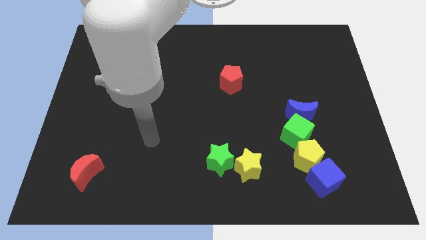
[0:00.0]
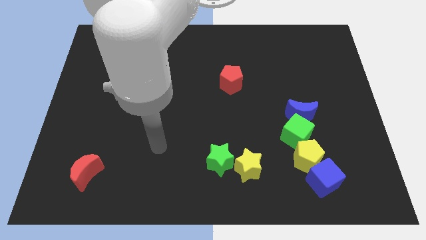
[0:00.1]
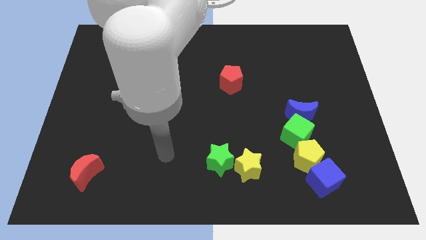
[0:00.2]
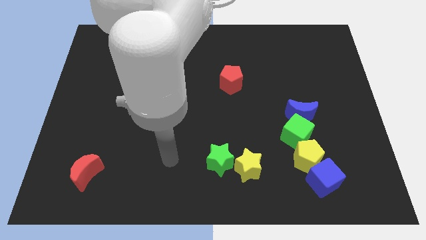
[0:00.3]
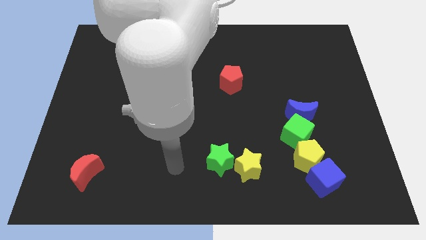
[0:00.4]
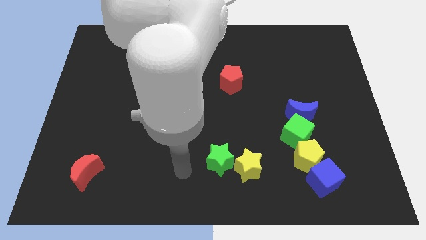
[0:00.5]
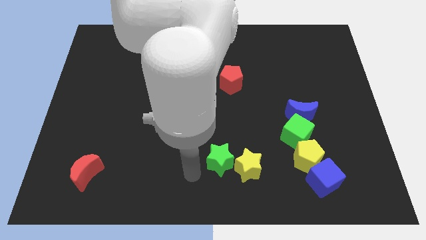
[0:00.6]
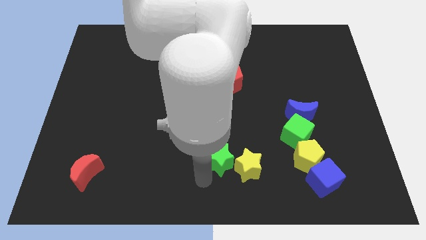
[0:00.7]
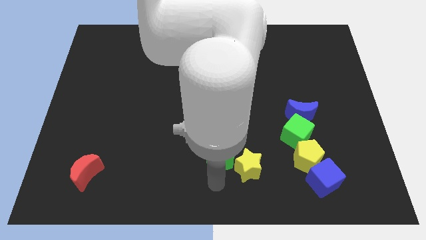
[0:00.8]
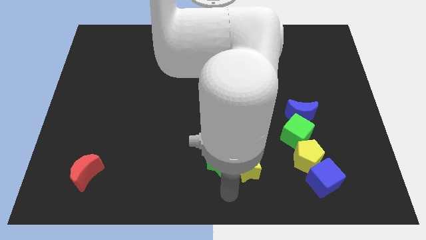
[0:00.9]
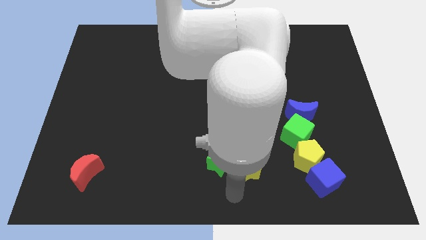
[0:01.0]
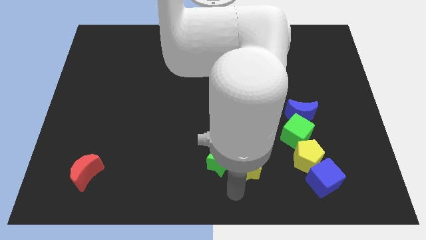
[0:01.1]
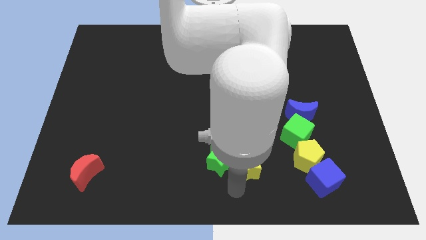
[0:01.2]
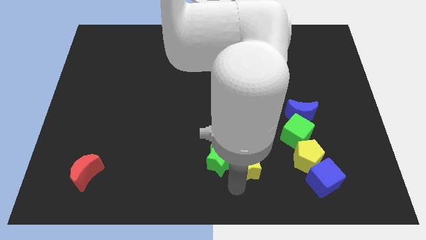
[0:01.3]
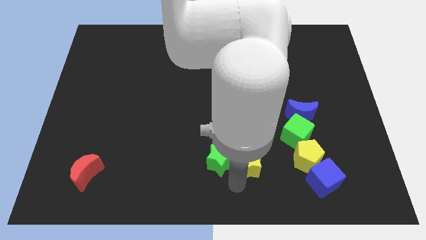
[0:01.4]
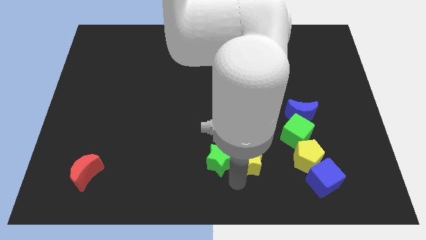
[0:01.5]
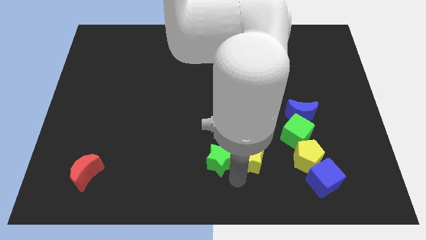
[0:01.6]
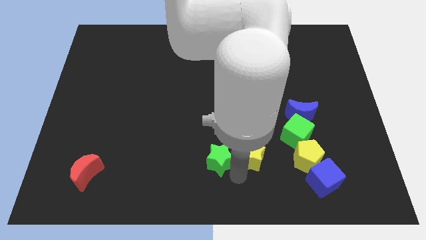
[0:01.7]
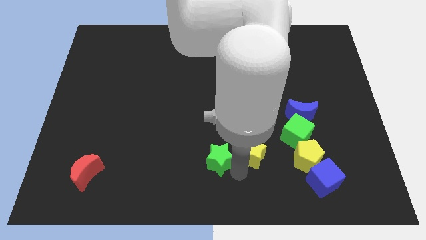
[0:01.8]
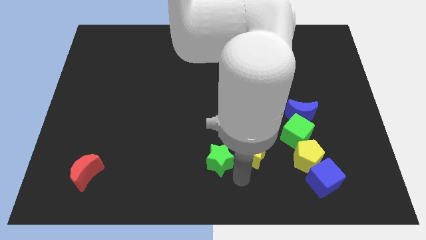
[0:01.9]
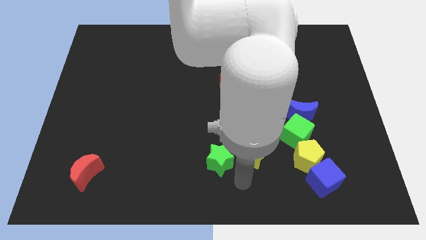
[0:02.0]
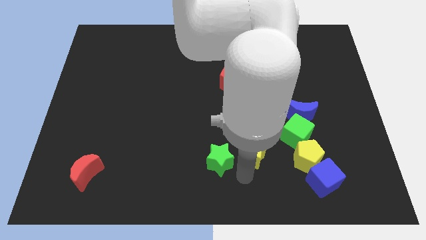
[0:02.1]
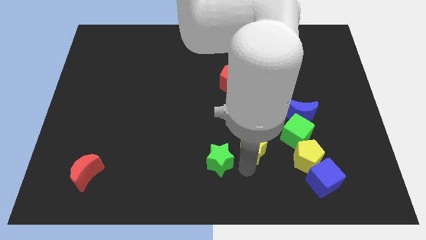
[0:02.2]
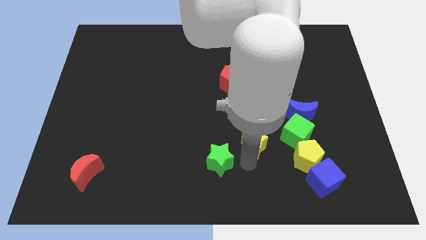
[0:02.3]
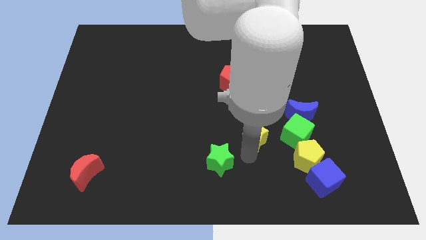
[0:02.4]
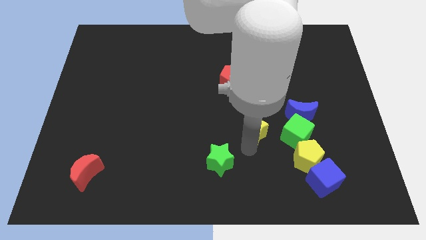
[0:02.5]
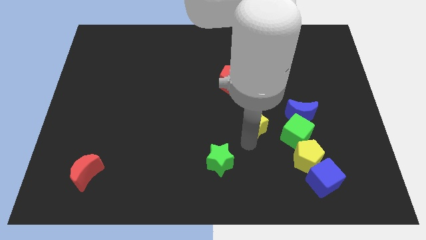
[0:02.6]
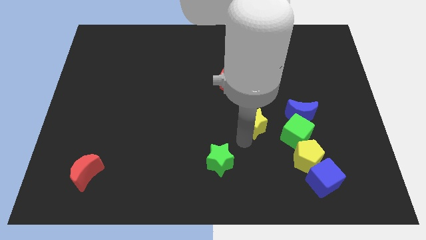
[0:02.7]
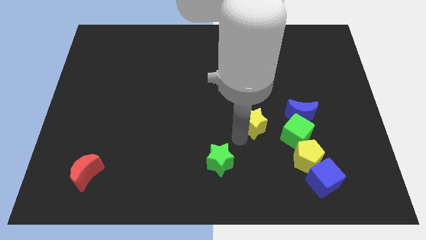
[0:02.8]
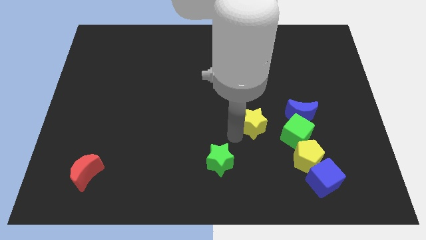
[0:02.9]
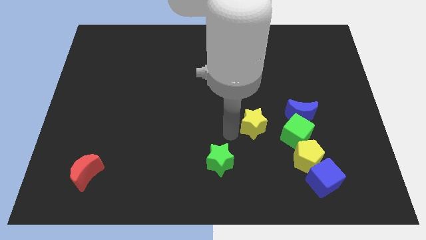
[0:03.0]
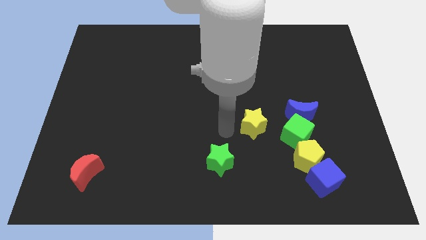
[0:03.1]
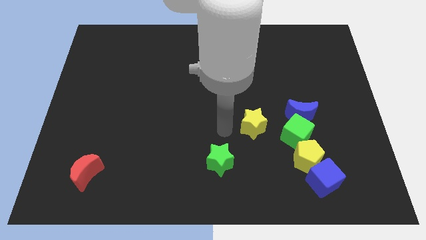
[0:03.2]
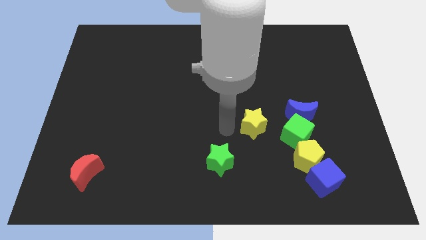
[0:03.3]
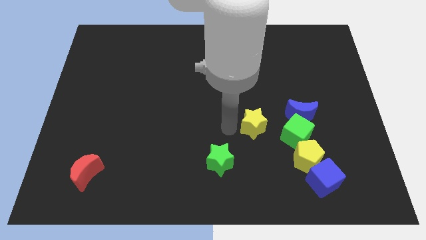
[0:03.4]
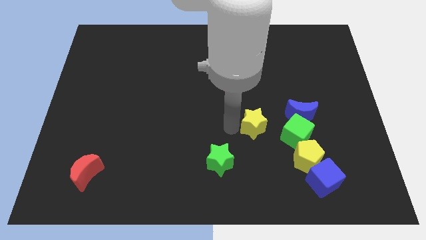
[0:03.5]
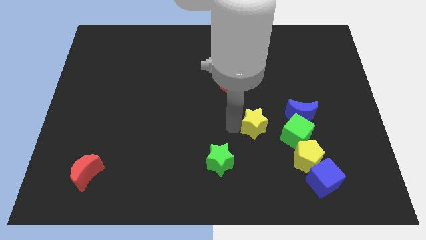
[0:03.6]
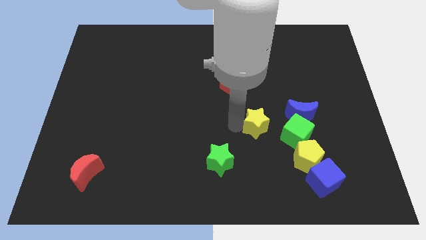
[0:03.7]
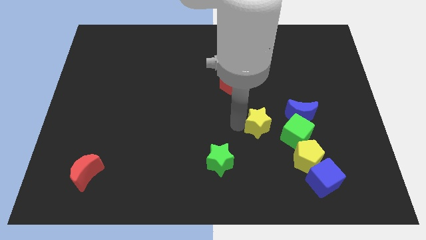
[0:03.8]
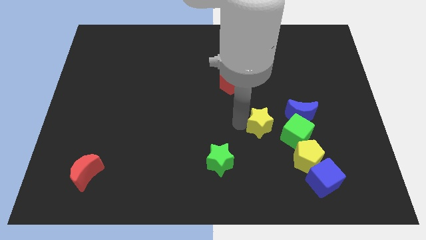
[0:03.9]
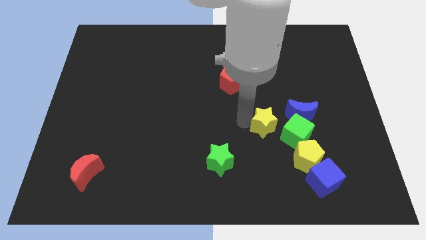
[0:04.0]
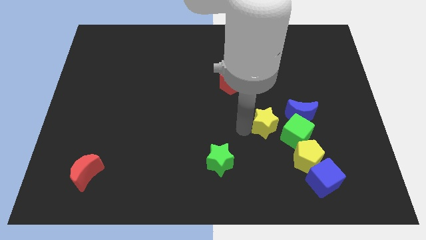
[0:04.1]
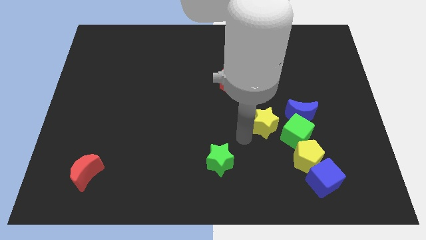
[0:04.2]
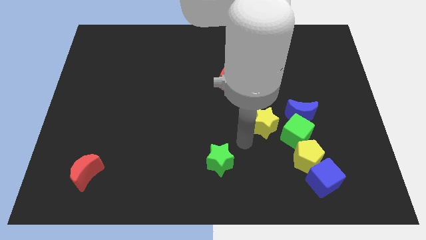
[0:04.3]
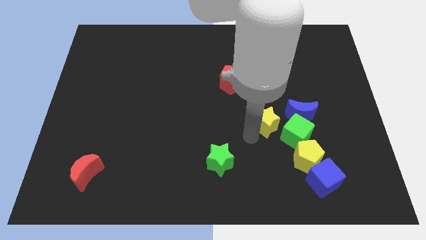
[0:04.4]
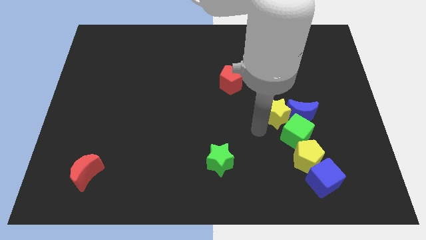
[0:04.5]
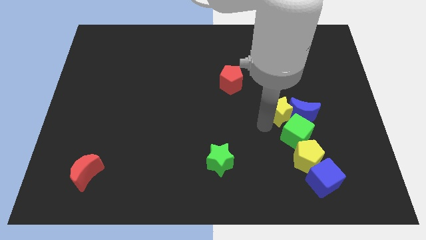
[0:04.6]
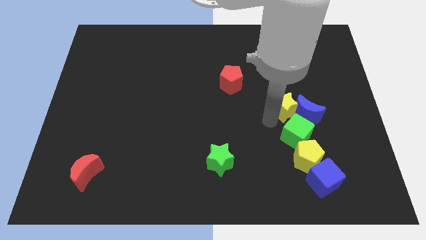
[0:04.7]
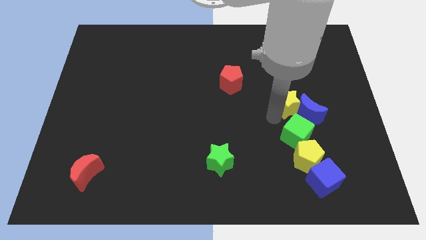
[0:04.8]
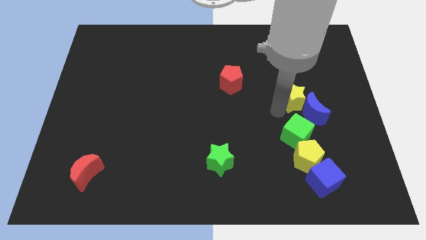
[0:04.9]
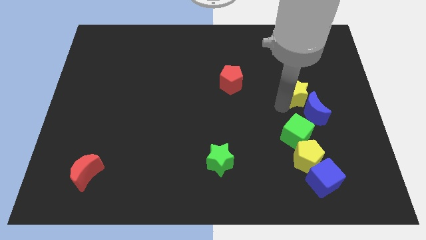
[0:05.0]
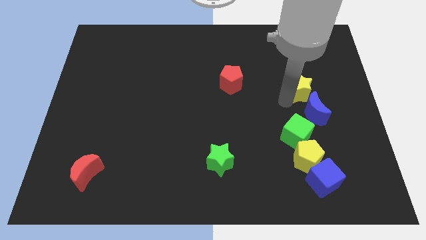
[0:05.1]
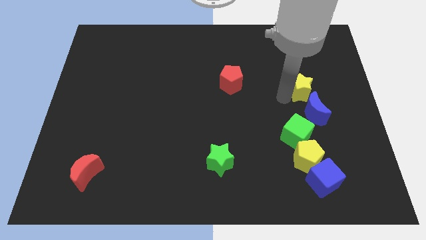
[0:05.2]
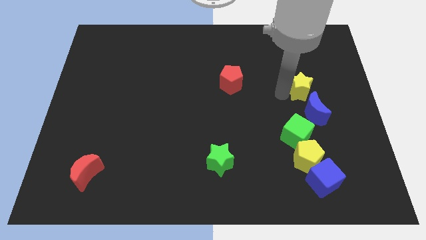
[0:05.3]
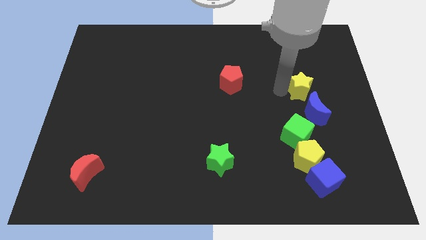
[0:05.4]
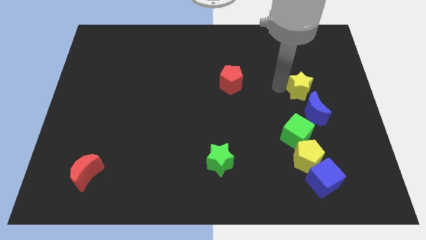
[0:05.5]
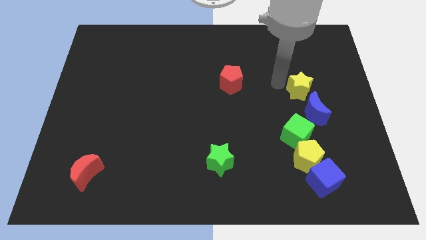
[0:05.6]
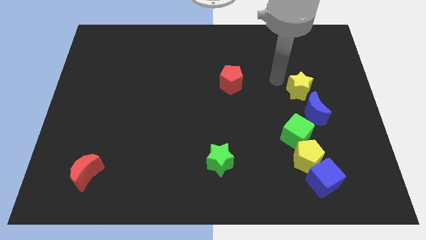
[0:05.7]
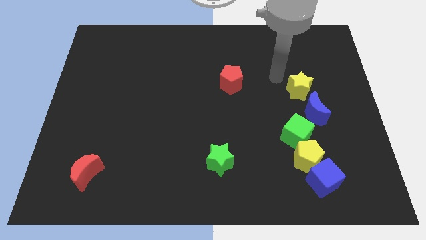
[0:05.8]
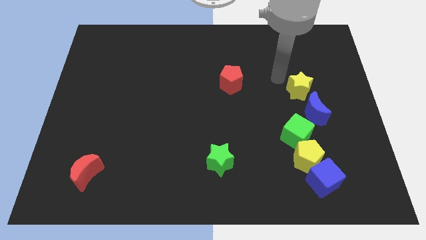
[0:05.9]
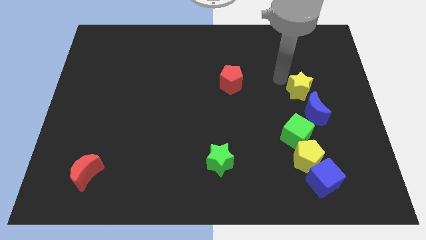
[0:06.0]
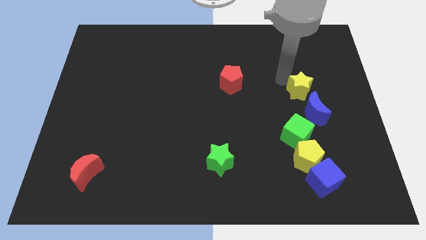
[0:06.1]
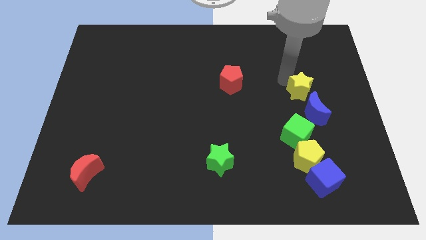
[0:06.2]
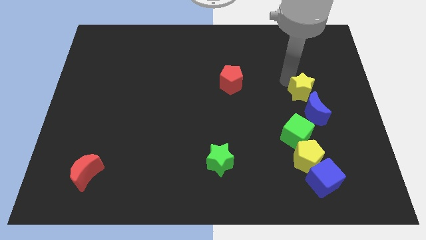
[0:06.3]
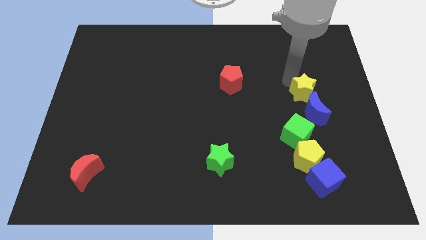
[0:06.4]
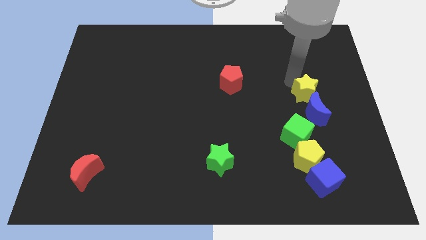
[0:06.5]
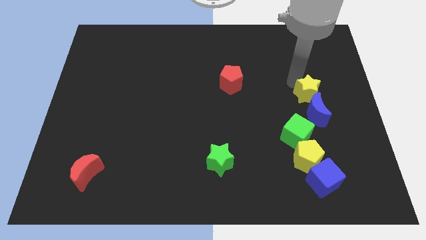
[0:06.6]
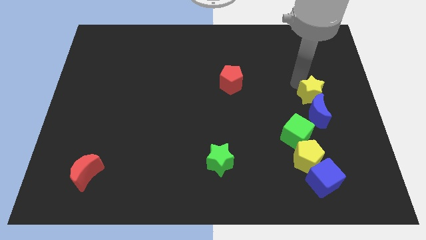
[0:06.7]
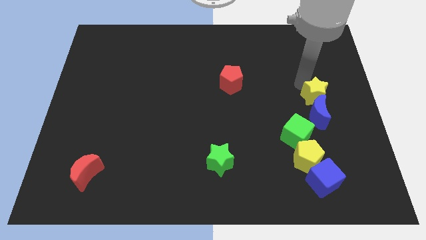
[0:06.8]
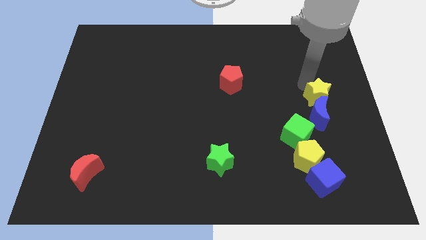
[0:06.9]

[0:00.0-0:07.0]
move the yellow star to the right side of the board
